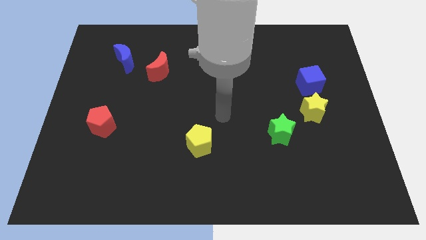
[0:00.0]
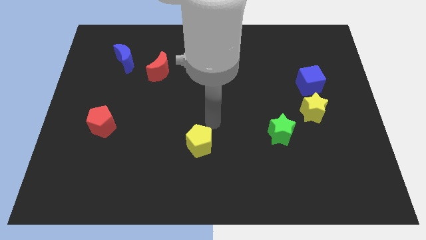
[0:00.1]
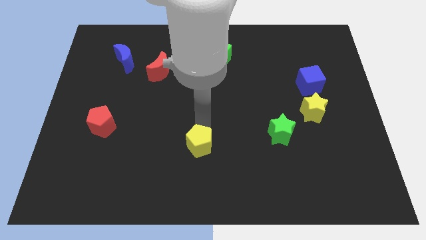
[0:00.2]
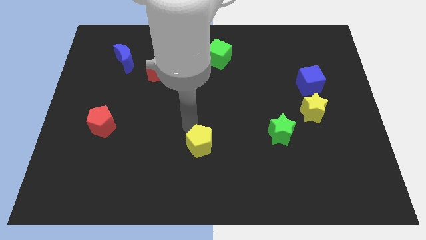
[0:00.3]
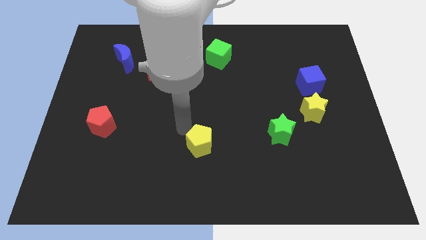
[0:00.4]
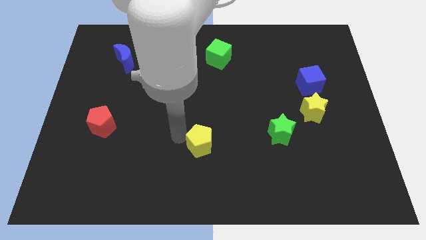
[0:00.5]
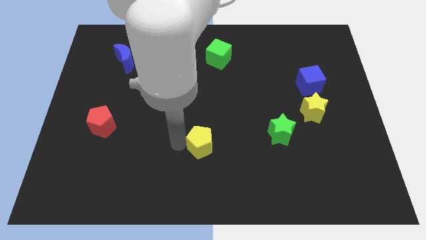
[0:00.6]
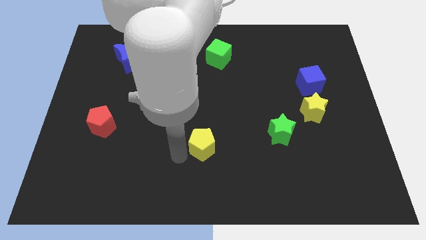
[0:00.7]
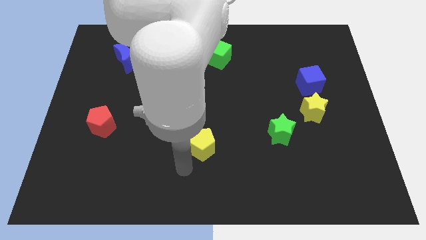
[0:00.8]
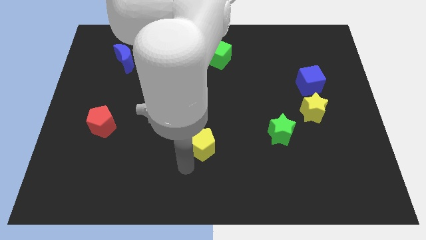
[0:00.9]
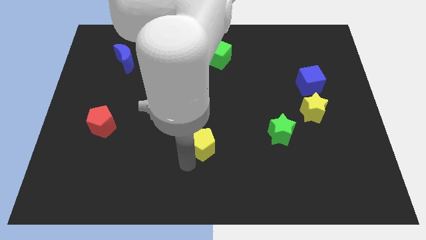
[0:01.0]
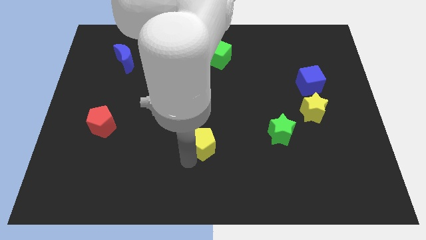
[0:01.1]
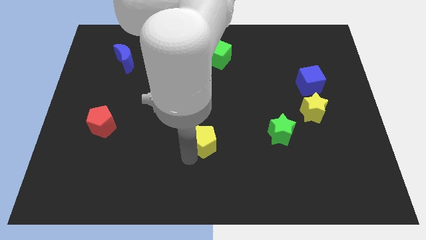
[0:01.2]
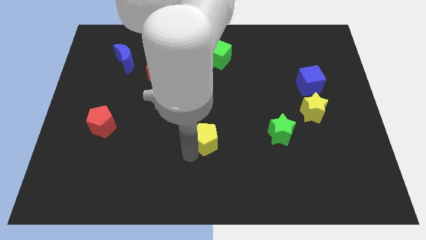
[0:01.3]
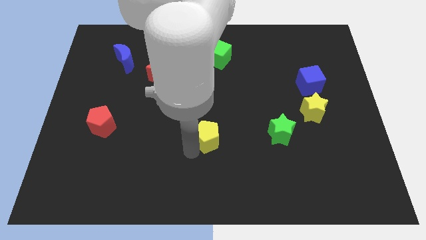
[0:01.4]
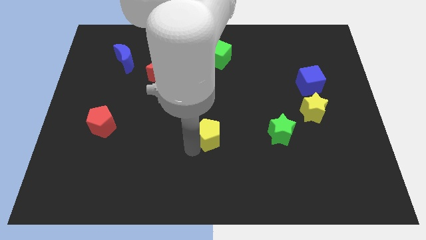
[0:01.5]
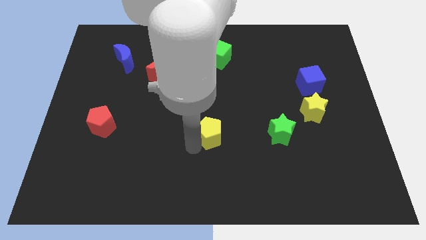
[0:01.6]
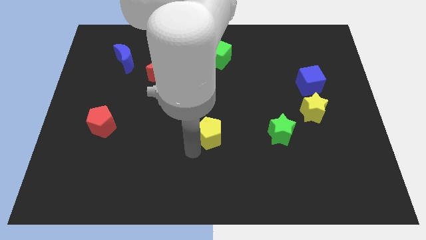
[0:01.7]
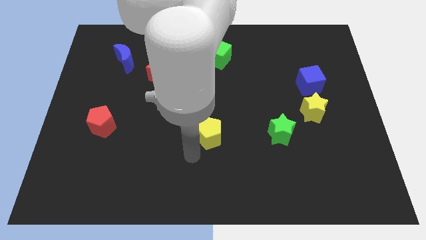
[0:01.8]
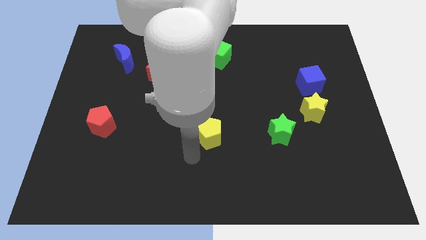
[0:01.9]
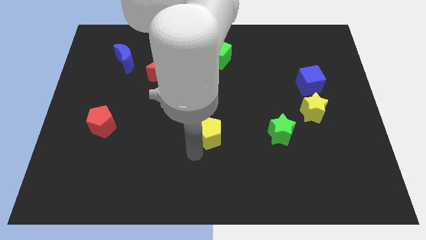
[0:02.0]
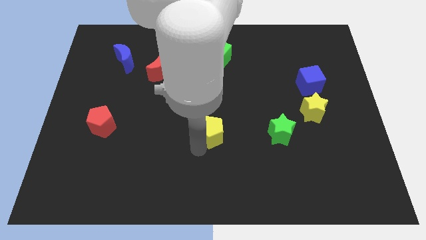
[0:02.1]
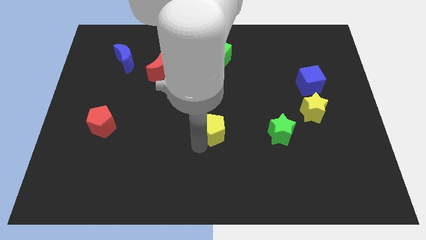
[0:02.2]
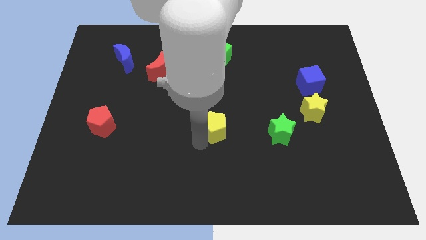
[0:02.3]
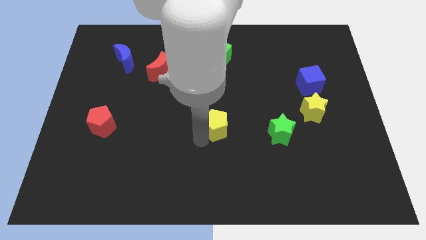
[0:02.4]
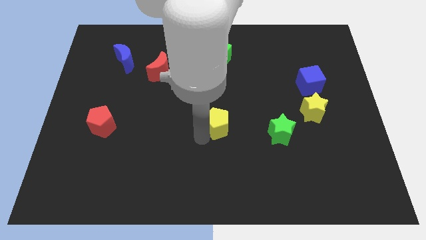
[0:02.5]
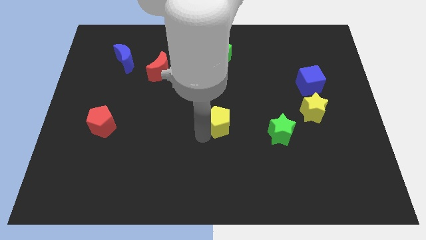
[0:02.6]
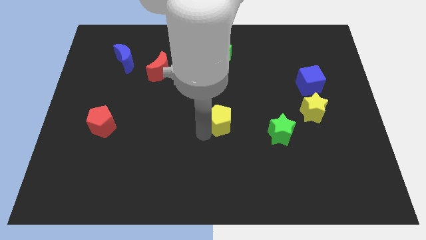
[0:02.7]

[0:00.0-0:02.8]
move the yellow pentagon a little diagonally up and to the right

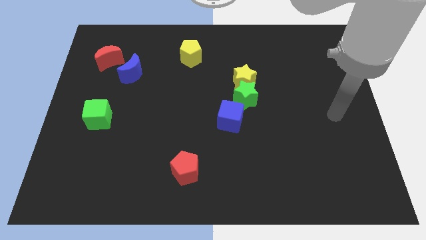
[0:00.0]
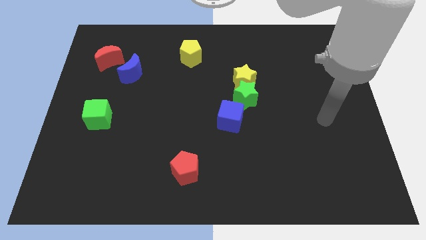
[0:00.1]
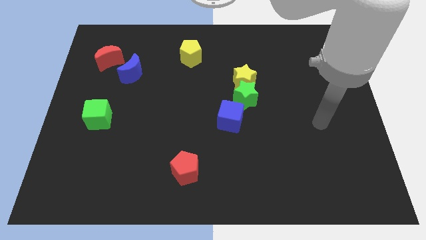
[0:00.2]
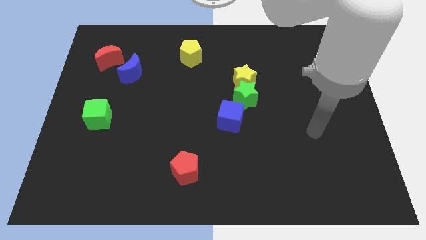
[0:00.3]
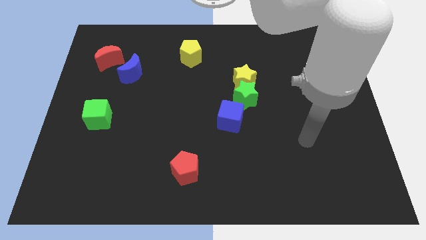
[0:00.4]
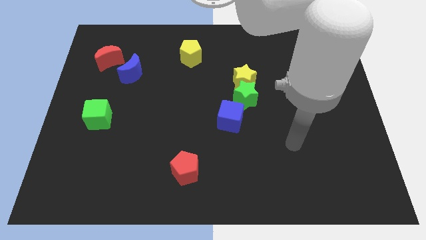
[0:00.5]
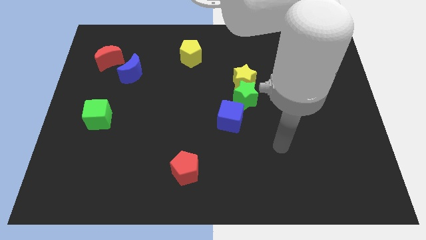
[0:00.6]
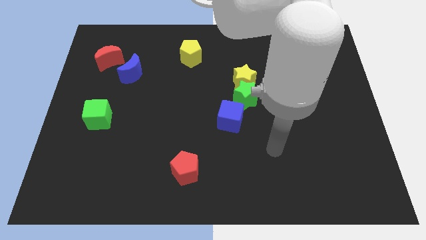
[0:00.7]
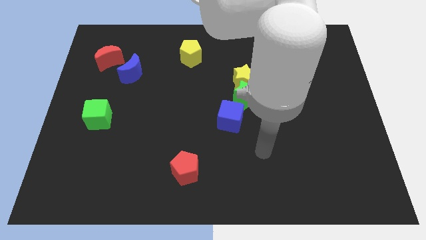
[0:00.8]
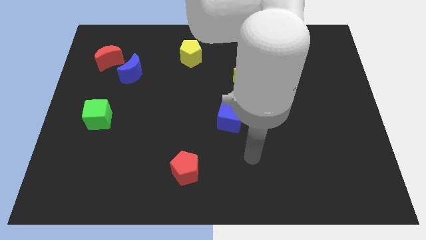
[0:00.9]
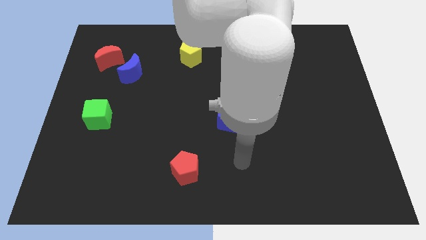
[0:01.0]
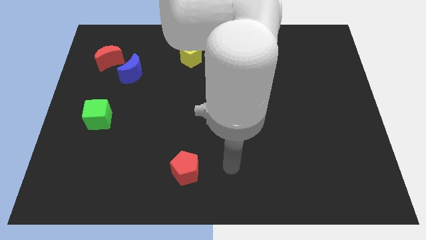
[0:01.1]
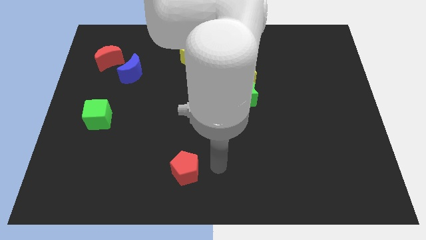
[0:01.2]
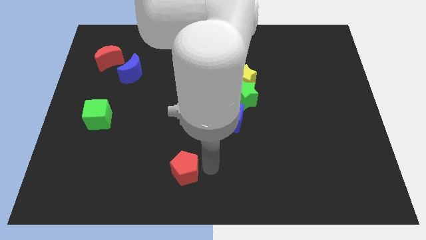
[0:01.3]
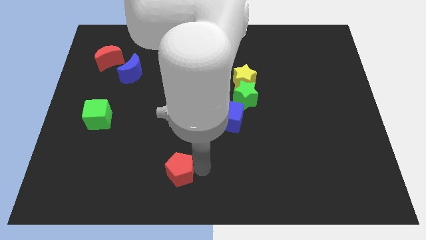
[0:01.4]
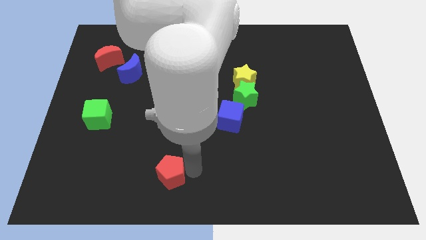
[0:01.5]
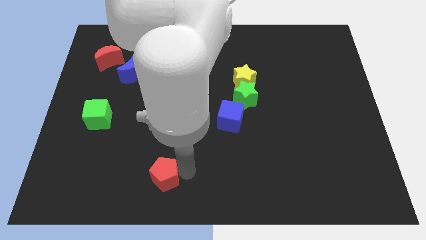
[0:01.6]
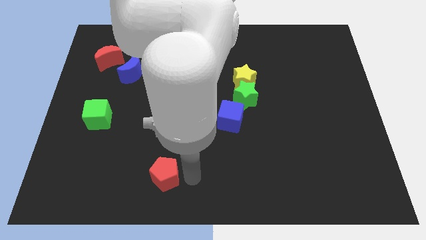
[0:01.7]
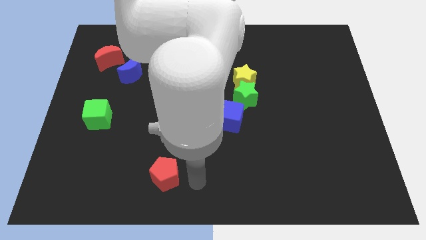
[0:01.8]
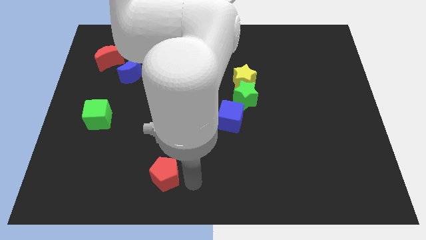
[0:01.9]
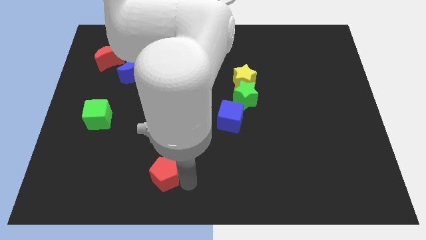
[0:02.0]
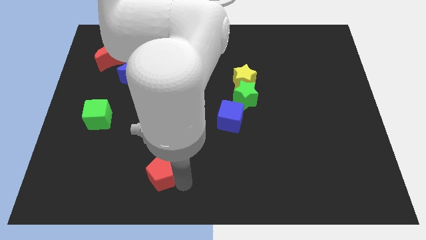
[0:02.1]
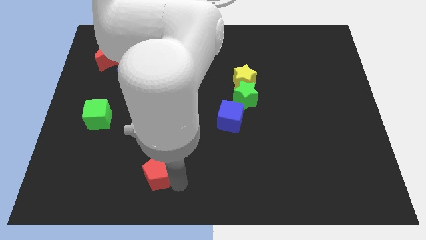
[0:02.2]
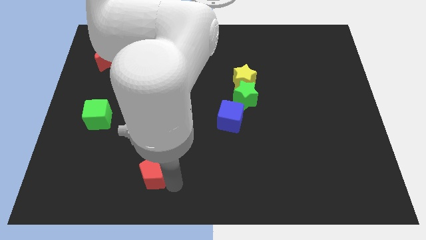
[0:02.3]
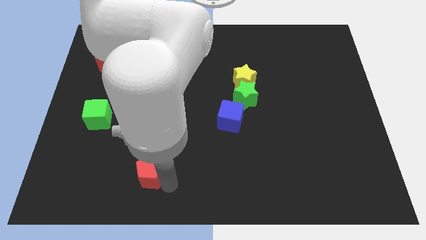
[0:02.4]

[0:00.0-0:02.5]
slide the red pentagon to the left somewhat

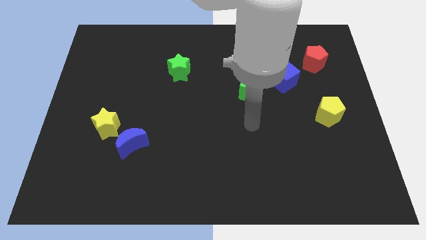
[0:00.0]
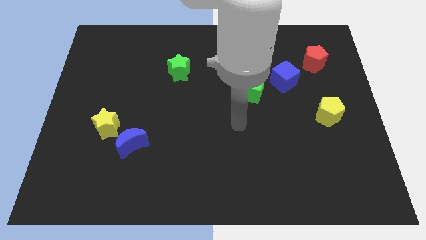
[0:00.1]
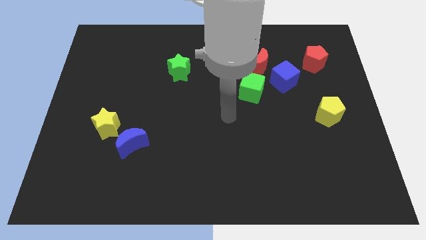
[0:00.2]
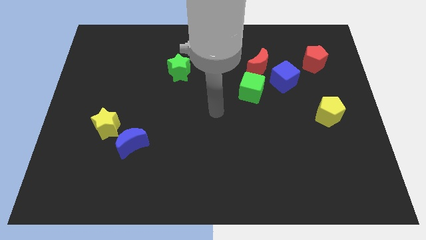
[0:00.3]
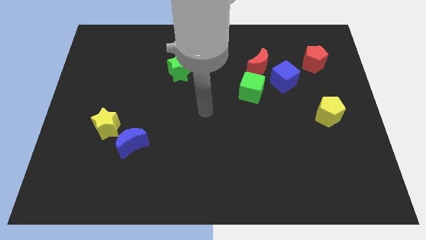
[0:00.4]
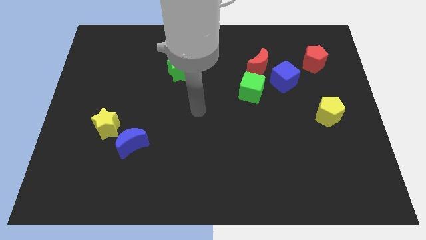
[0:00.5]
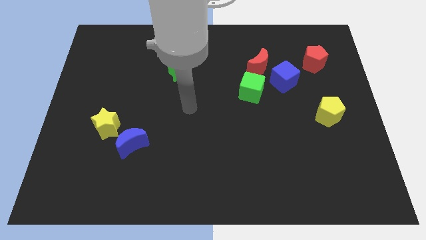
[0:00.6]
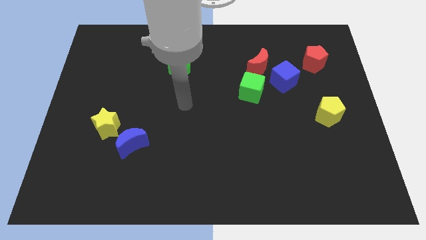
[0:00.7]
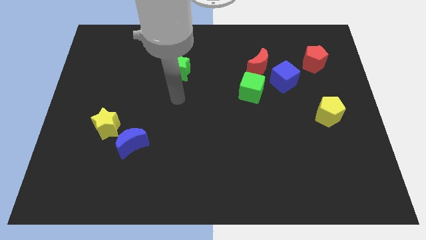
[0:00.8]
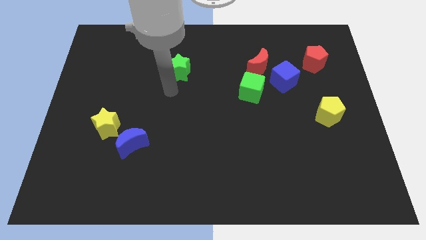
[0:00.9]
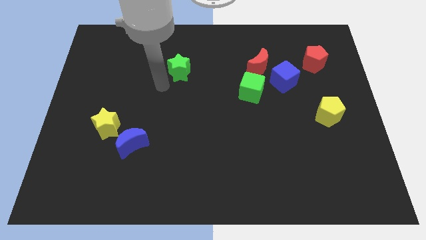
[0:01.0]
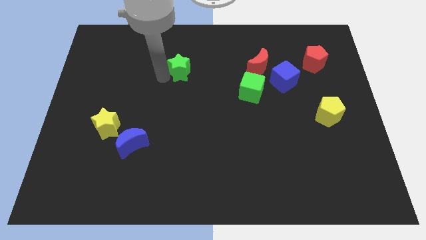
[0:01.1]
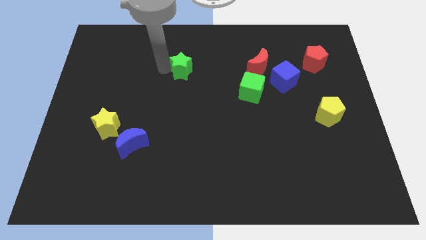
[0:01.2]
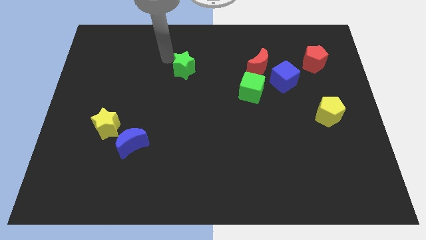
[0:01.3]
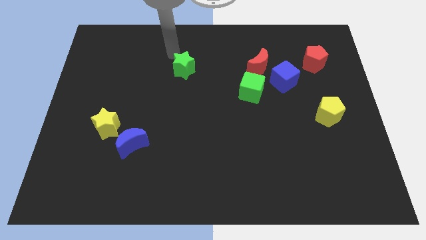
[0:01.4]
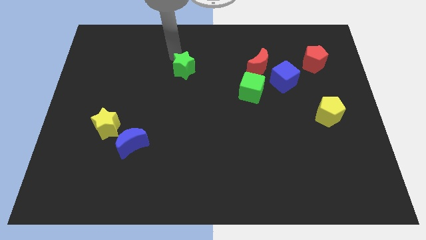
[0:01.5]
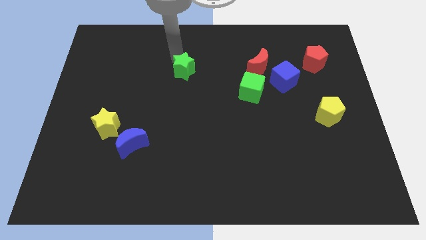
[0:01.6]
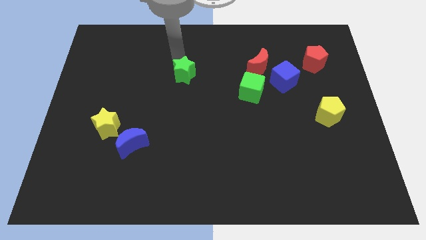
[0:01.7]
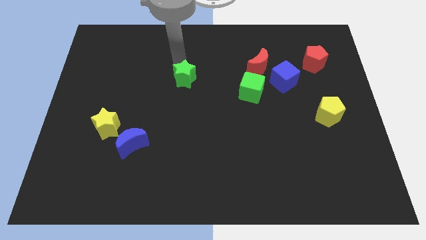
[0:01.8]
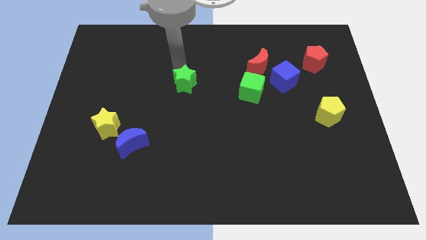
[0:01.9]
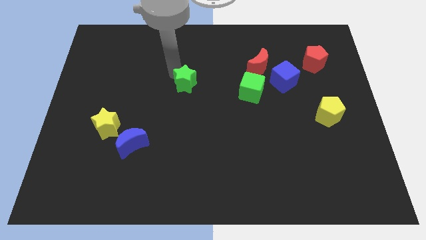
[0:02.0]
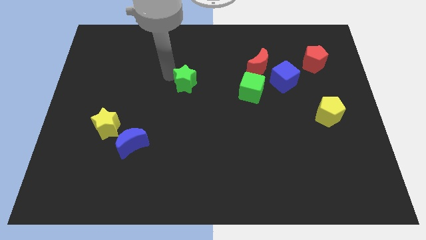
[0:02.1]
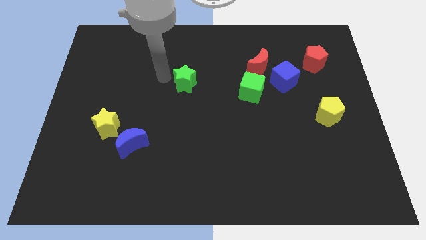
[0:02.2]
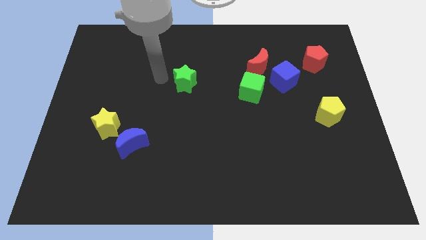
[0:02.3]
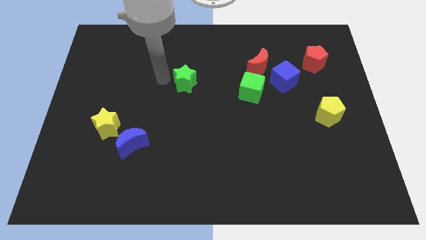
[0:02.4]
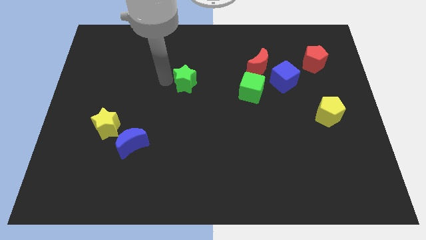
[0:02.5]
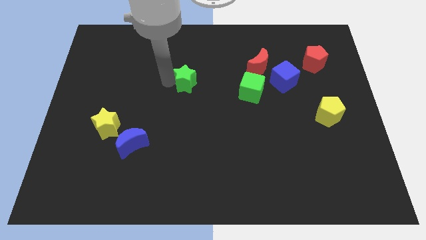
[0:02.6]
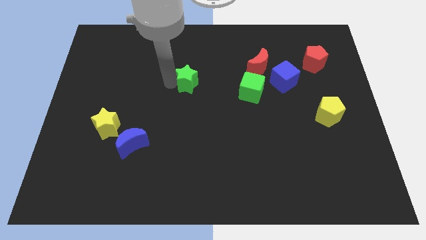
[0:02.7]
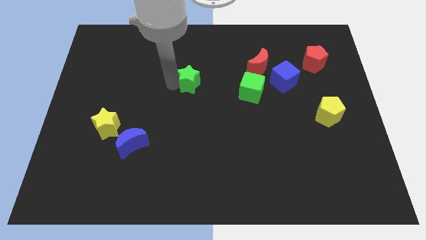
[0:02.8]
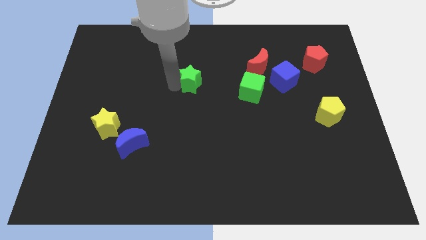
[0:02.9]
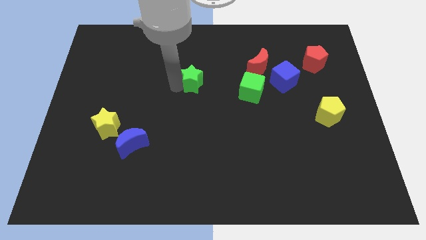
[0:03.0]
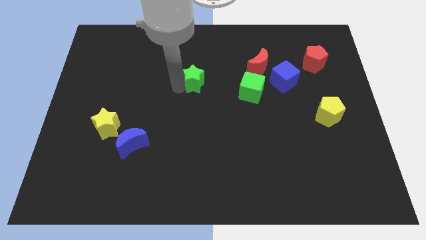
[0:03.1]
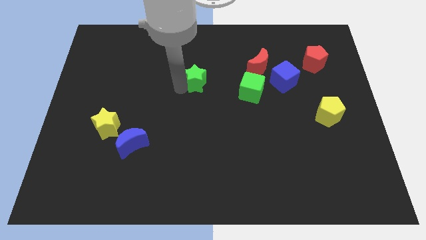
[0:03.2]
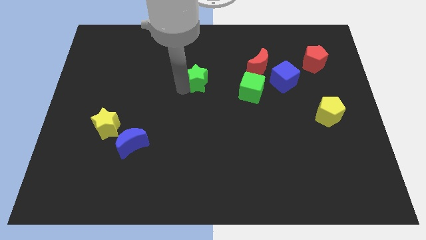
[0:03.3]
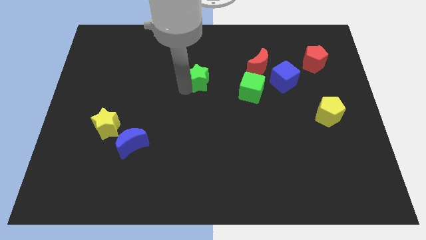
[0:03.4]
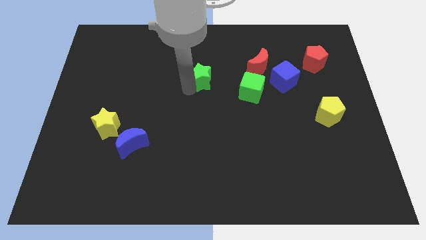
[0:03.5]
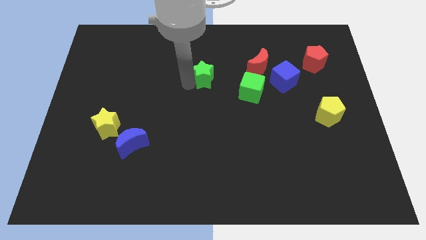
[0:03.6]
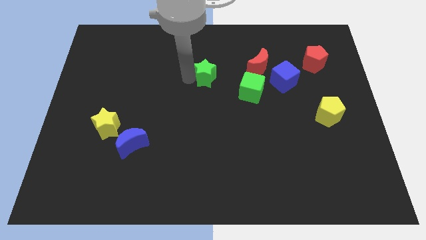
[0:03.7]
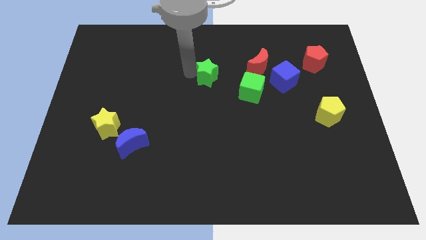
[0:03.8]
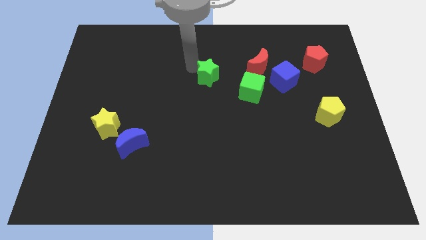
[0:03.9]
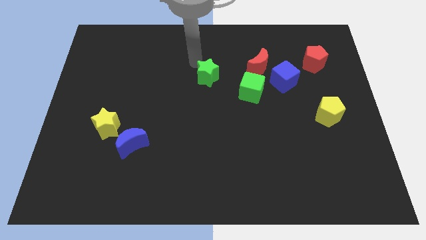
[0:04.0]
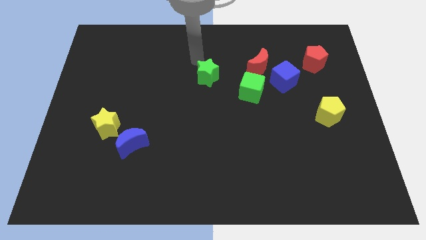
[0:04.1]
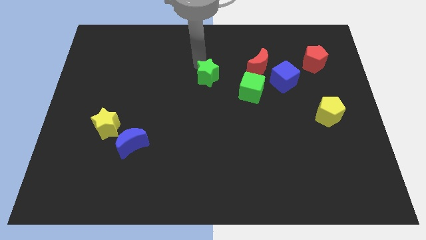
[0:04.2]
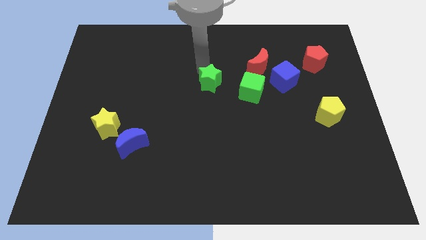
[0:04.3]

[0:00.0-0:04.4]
slightly push the green star down and then right
